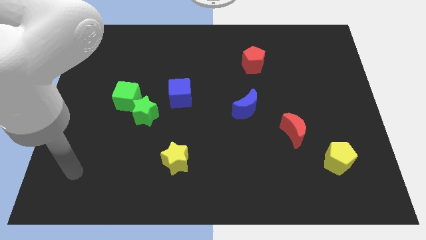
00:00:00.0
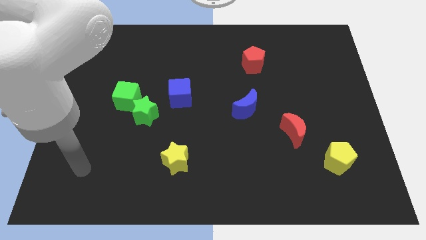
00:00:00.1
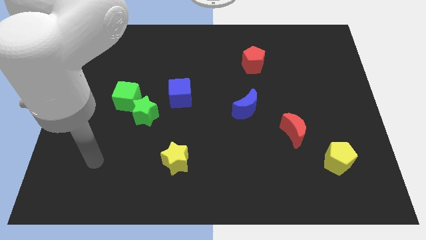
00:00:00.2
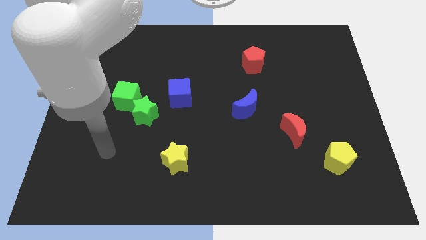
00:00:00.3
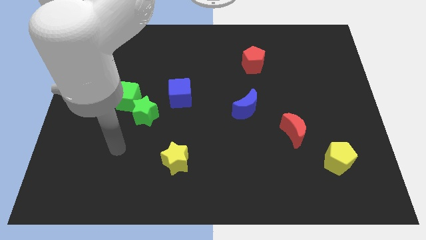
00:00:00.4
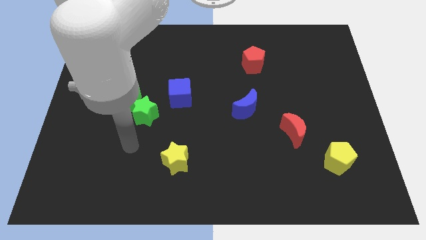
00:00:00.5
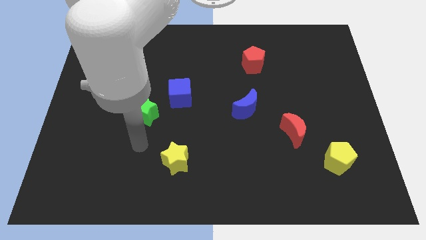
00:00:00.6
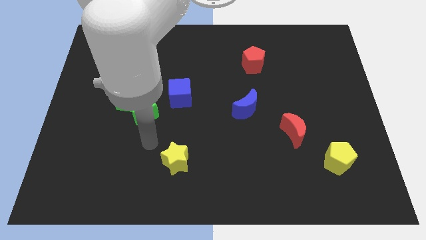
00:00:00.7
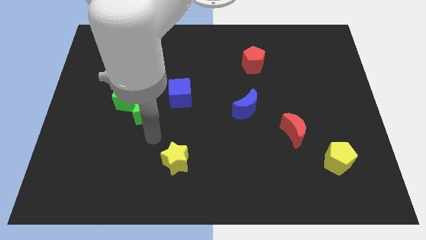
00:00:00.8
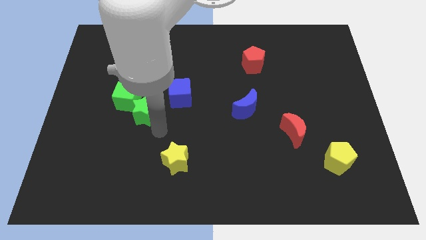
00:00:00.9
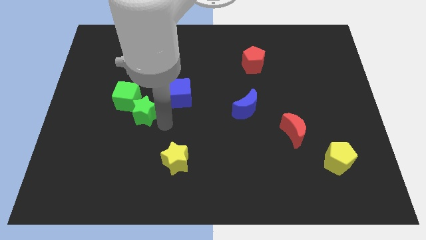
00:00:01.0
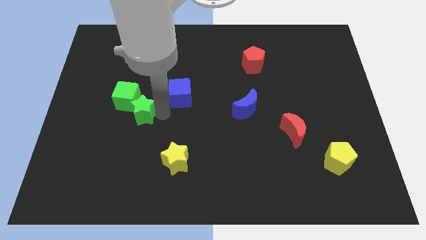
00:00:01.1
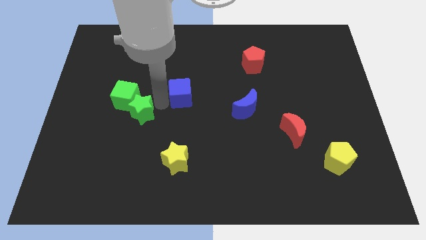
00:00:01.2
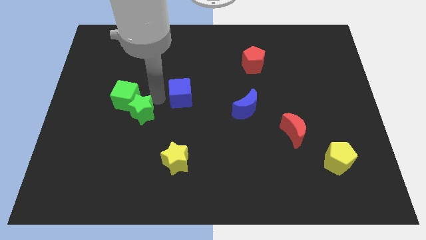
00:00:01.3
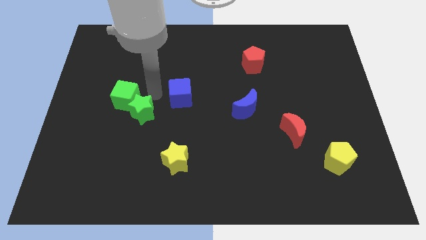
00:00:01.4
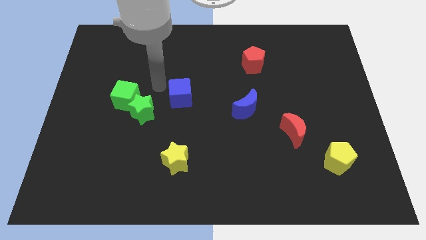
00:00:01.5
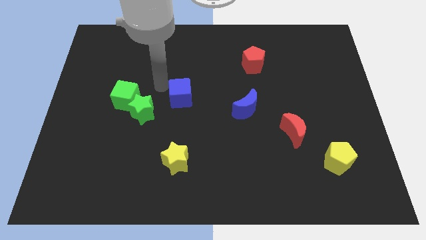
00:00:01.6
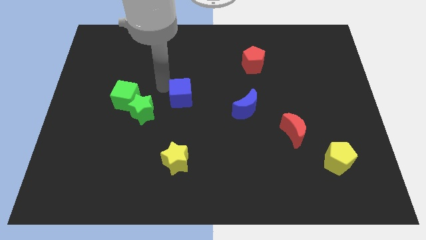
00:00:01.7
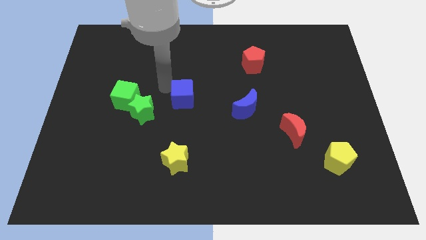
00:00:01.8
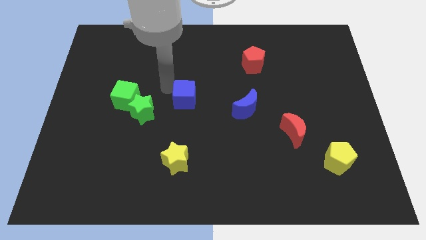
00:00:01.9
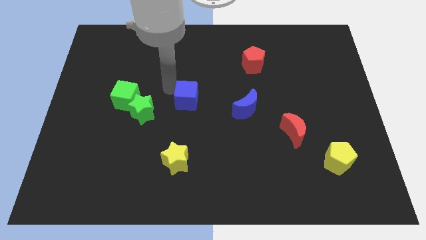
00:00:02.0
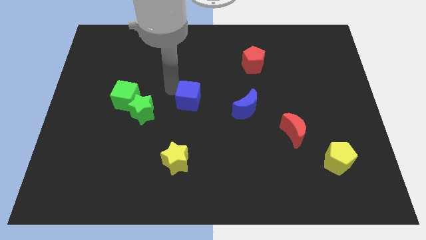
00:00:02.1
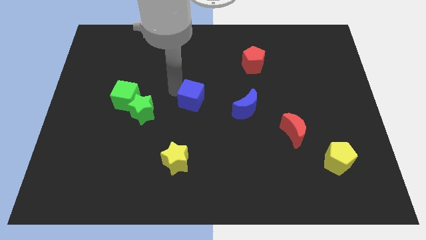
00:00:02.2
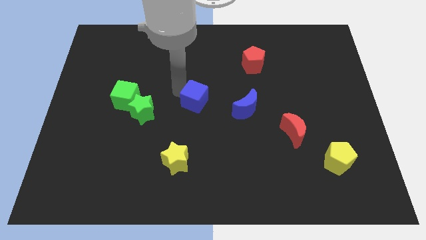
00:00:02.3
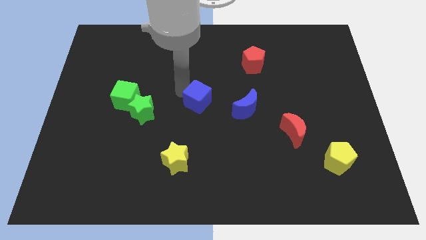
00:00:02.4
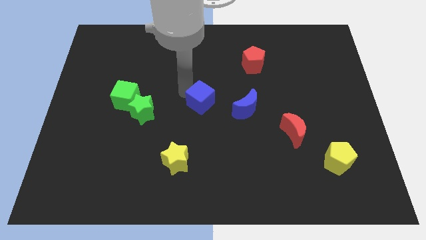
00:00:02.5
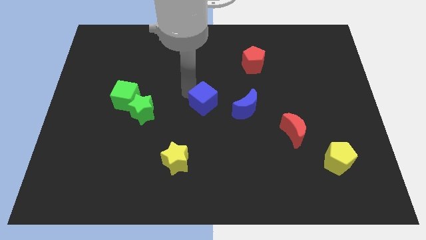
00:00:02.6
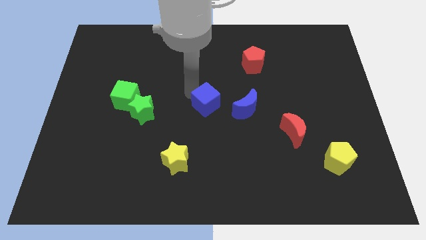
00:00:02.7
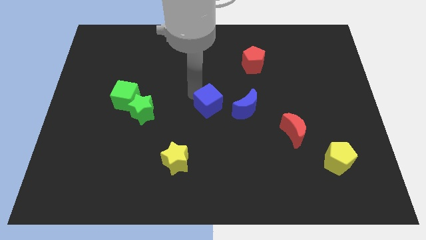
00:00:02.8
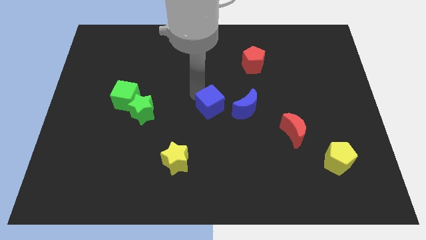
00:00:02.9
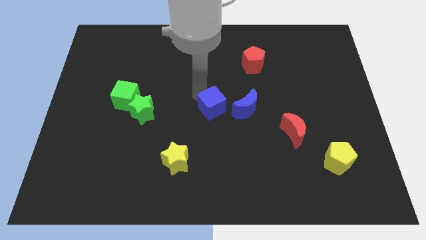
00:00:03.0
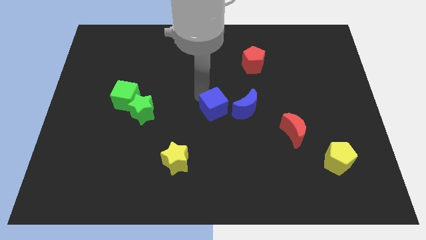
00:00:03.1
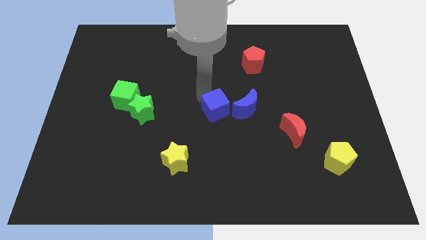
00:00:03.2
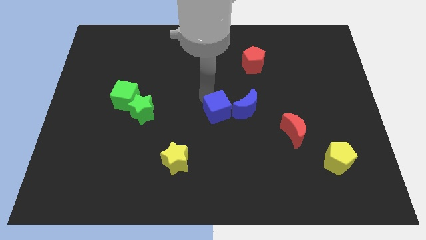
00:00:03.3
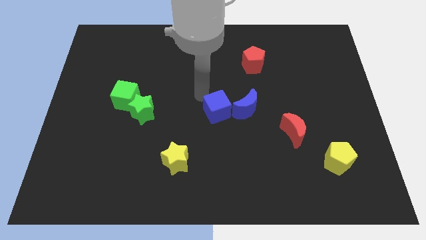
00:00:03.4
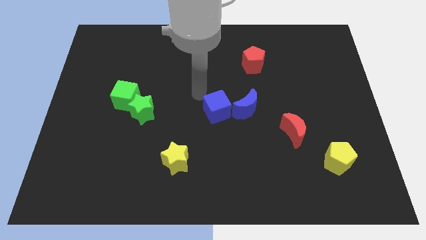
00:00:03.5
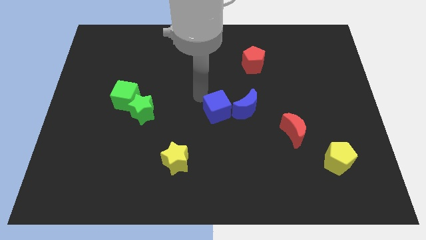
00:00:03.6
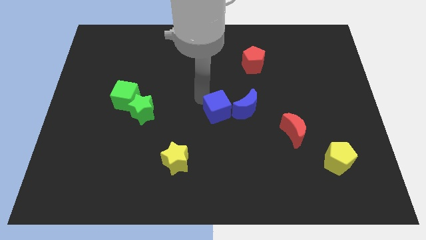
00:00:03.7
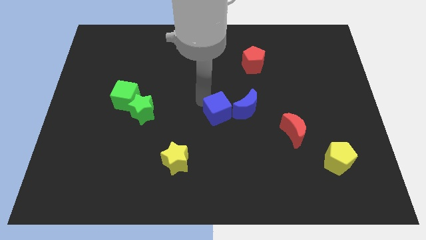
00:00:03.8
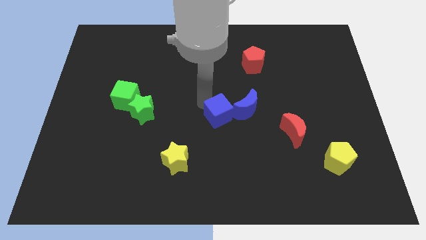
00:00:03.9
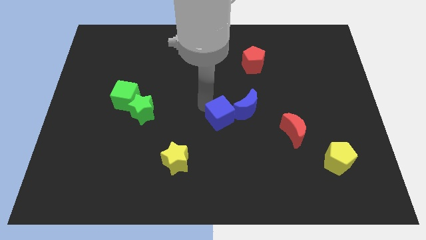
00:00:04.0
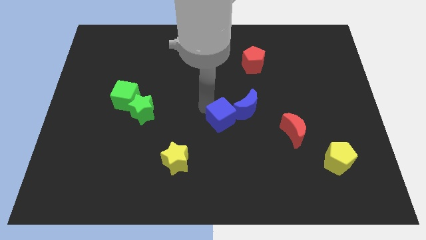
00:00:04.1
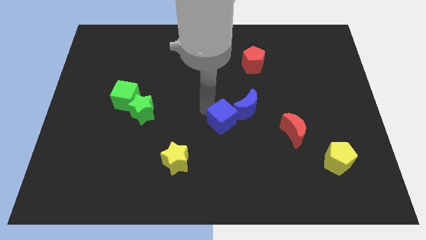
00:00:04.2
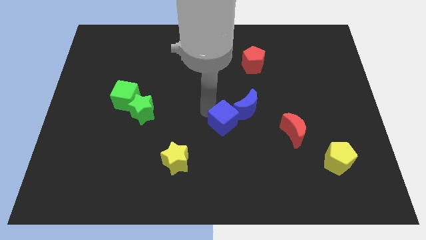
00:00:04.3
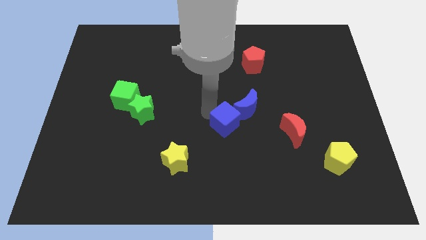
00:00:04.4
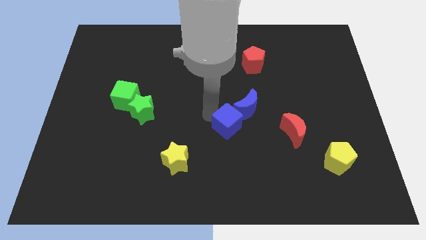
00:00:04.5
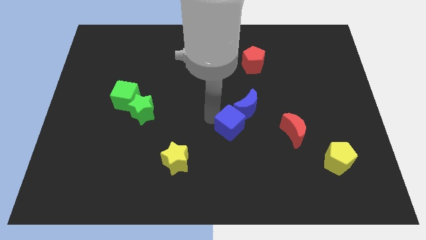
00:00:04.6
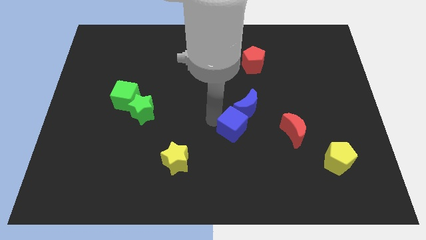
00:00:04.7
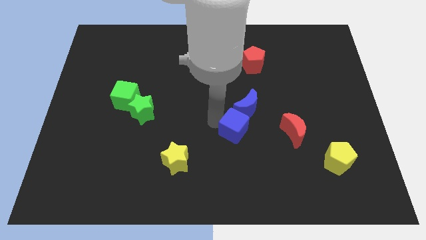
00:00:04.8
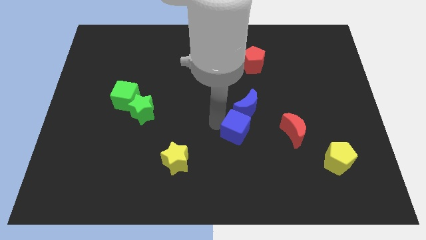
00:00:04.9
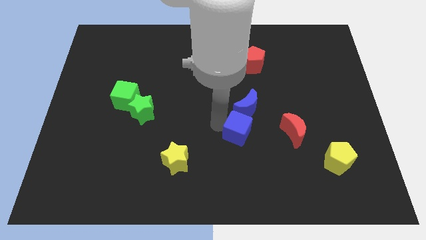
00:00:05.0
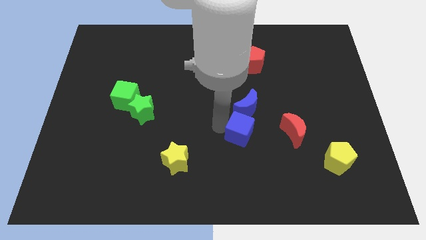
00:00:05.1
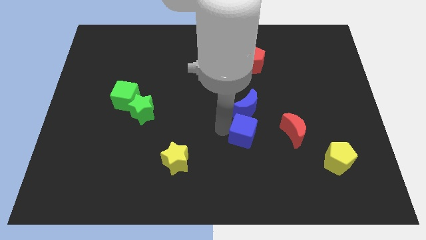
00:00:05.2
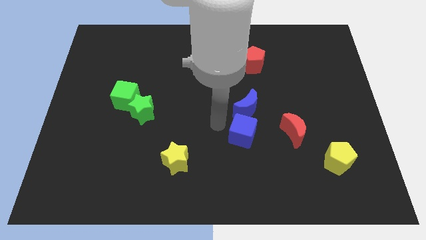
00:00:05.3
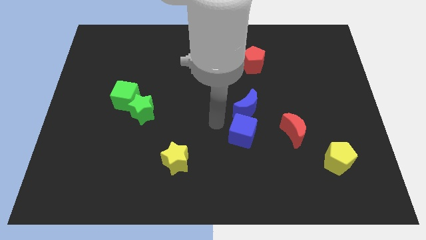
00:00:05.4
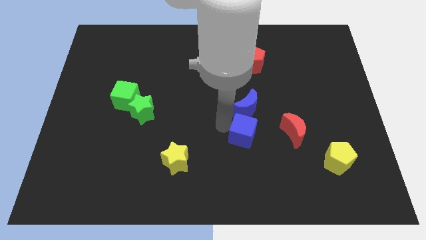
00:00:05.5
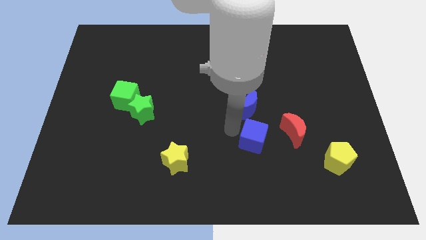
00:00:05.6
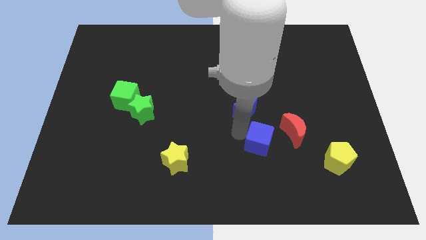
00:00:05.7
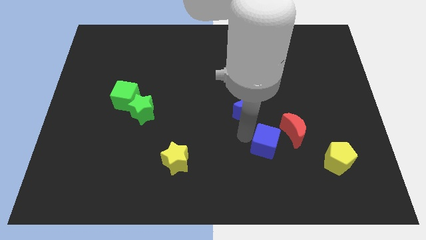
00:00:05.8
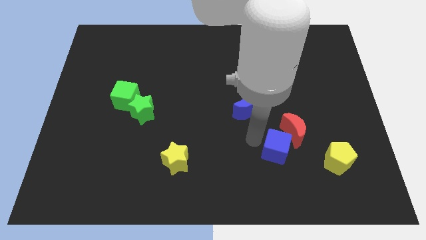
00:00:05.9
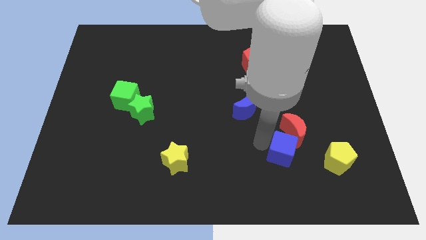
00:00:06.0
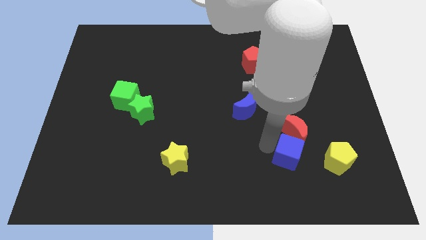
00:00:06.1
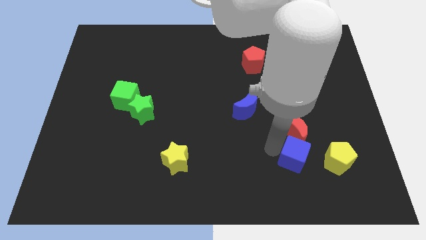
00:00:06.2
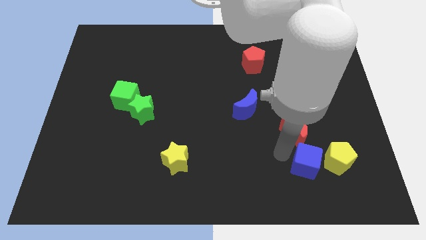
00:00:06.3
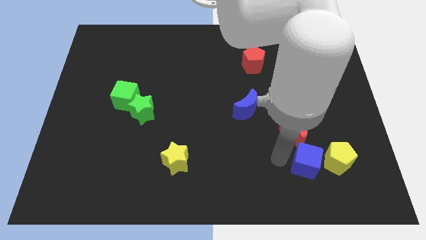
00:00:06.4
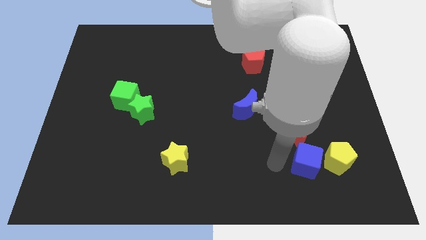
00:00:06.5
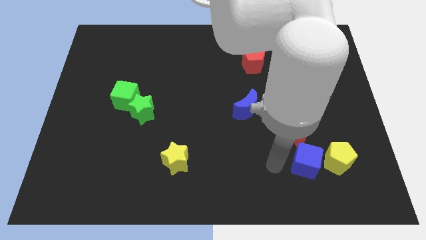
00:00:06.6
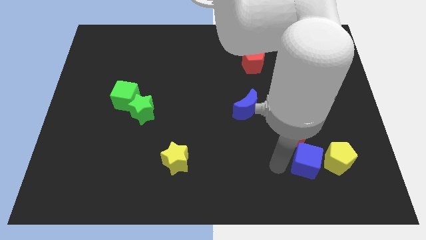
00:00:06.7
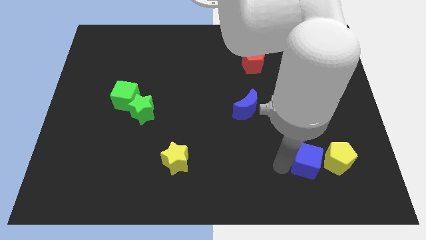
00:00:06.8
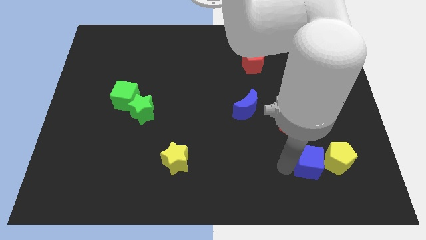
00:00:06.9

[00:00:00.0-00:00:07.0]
move the blue cube to the yellow pentagon
